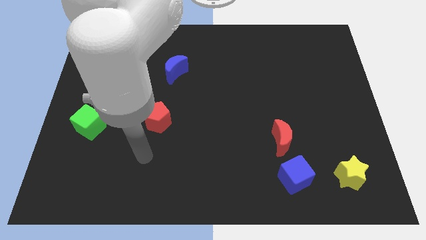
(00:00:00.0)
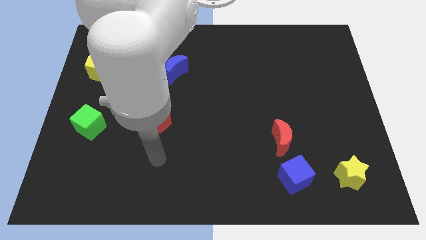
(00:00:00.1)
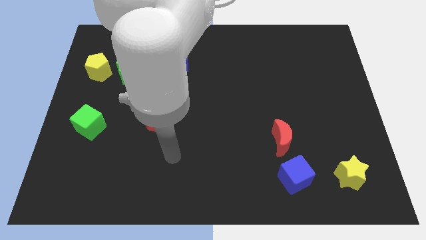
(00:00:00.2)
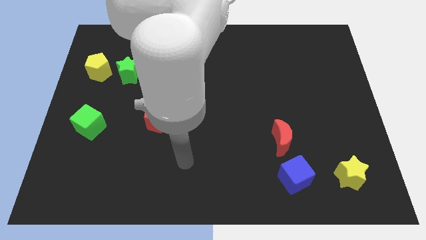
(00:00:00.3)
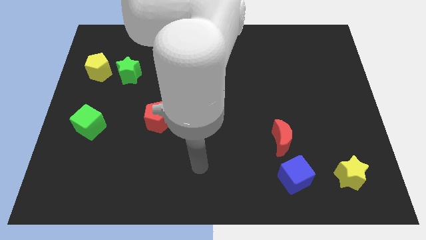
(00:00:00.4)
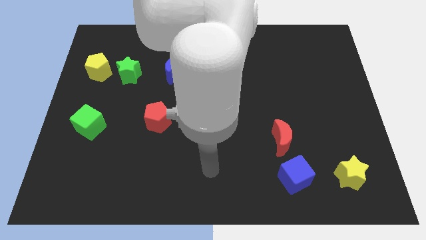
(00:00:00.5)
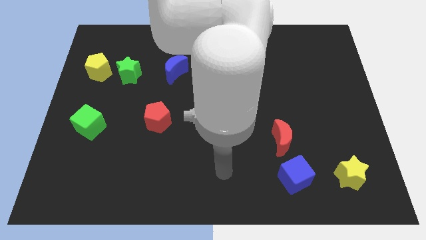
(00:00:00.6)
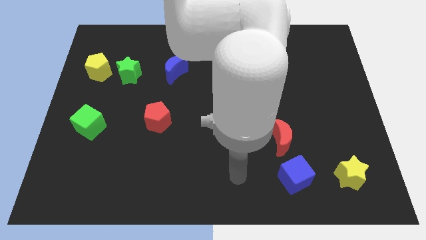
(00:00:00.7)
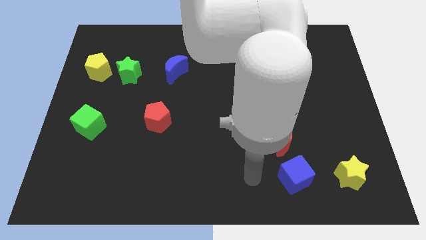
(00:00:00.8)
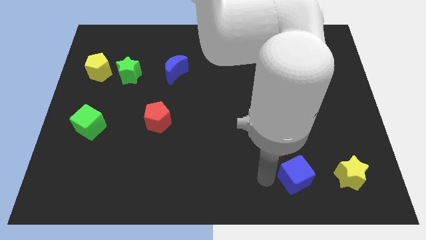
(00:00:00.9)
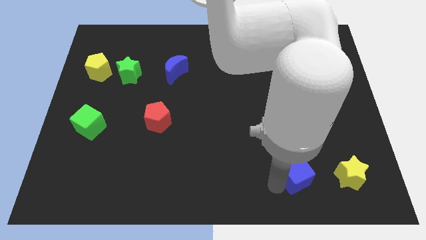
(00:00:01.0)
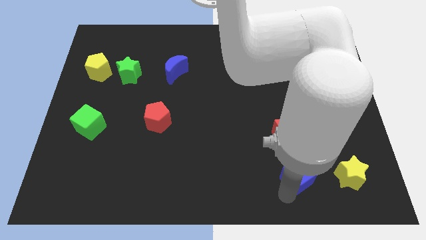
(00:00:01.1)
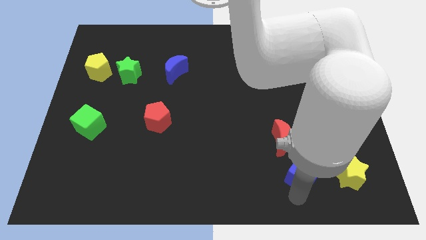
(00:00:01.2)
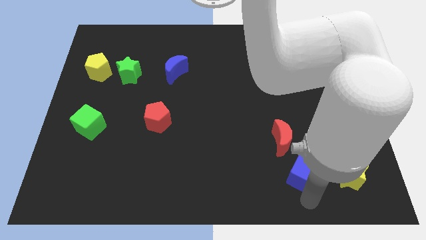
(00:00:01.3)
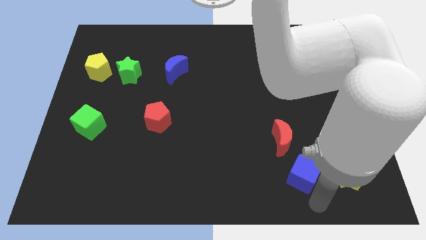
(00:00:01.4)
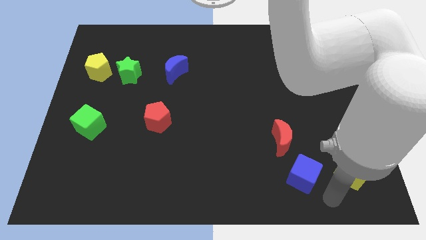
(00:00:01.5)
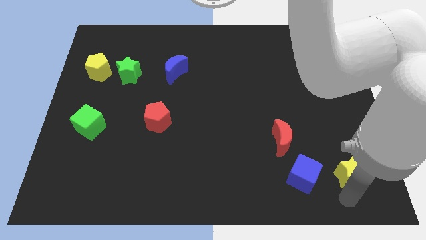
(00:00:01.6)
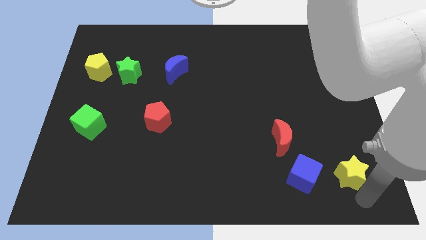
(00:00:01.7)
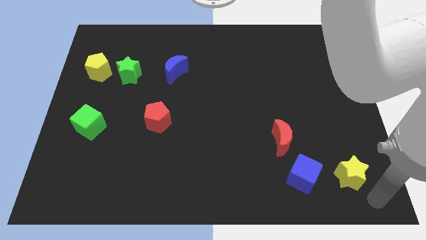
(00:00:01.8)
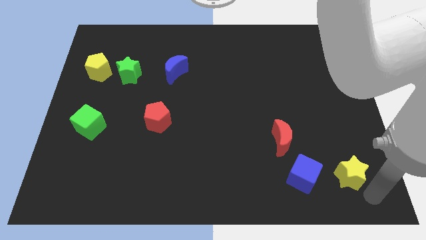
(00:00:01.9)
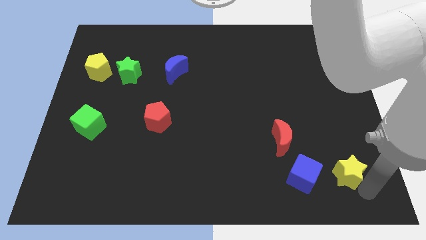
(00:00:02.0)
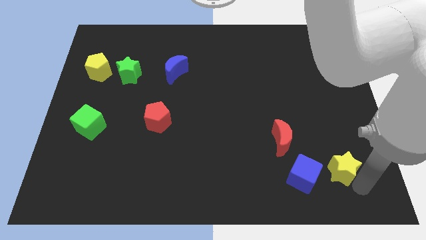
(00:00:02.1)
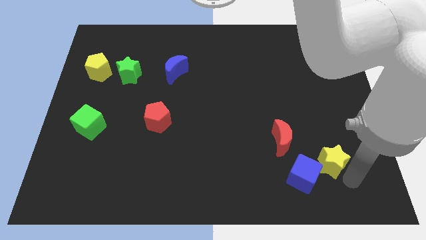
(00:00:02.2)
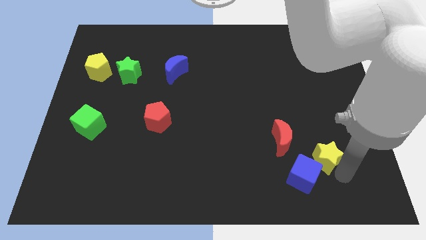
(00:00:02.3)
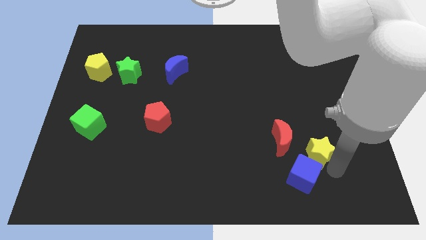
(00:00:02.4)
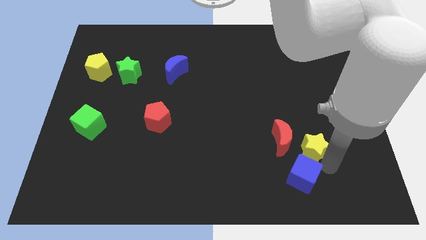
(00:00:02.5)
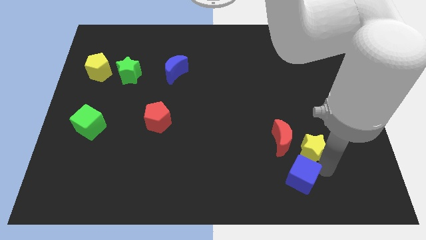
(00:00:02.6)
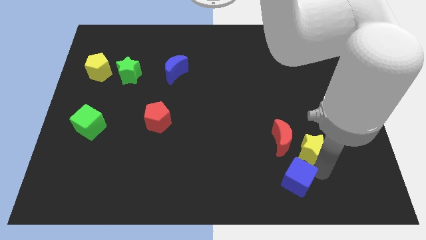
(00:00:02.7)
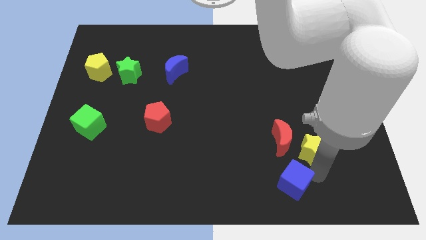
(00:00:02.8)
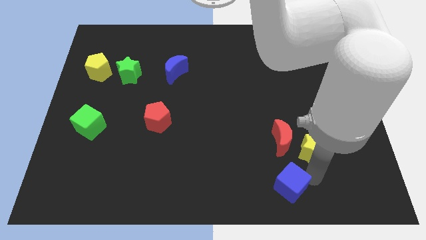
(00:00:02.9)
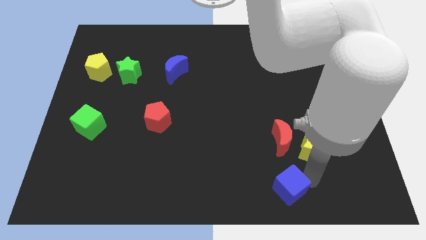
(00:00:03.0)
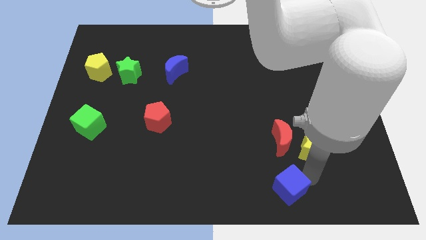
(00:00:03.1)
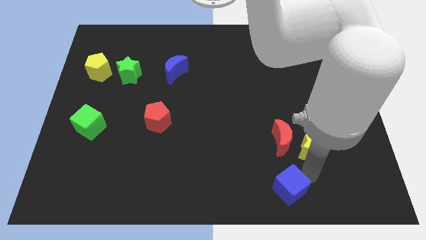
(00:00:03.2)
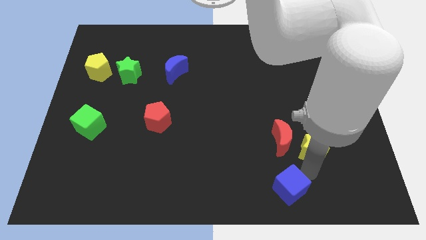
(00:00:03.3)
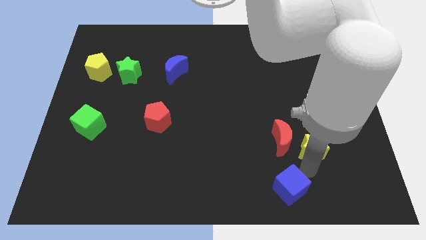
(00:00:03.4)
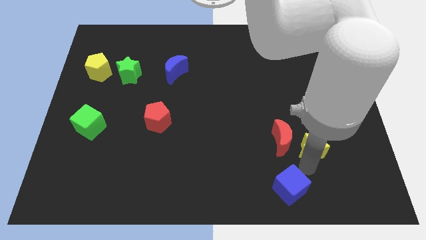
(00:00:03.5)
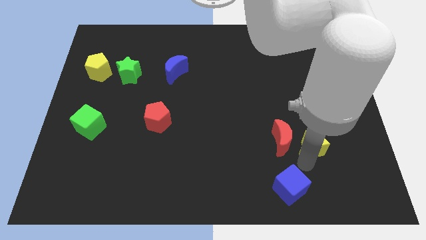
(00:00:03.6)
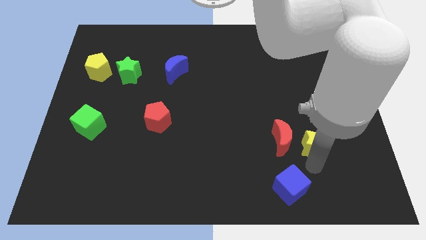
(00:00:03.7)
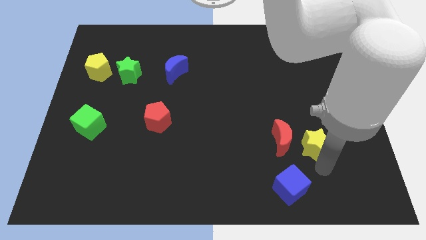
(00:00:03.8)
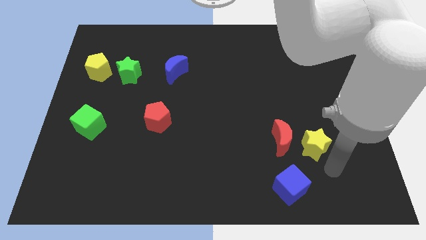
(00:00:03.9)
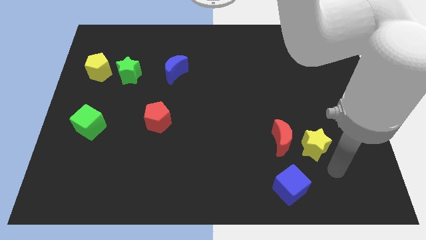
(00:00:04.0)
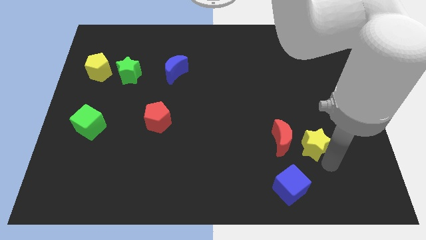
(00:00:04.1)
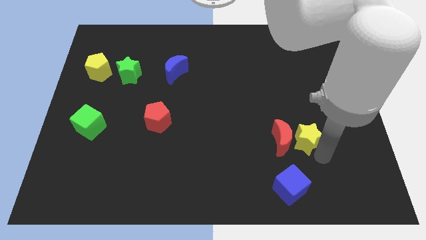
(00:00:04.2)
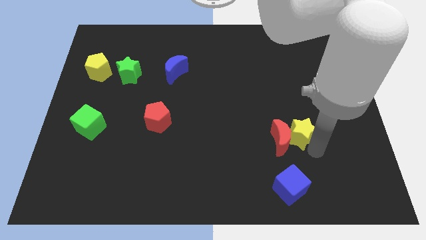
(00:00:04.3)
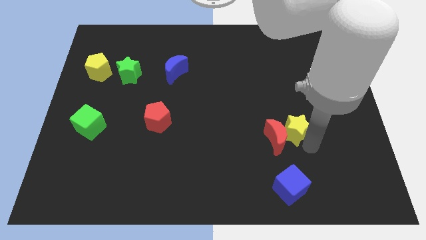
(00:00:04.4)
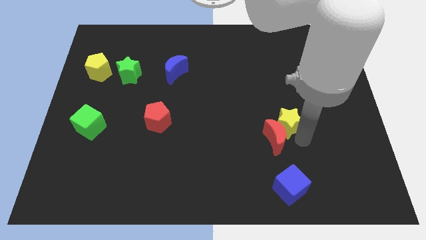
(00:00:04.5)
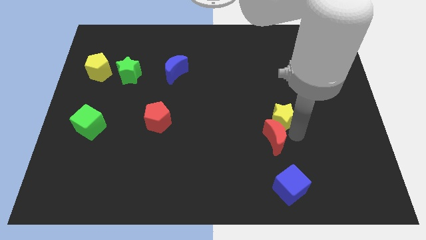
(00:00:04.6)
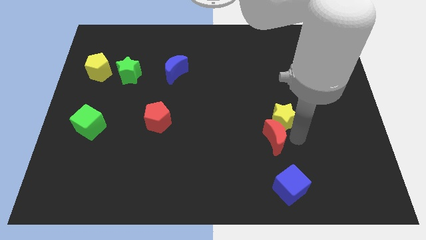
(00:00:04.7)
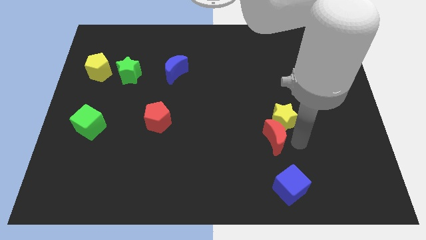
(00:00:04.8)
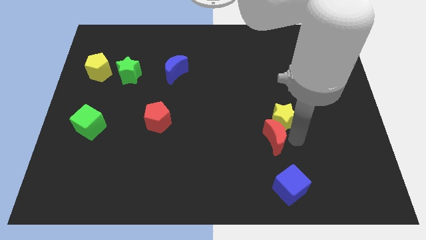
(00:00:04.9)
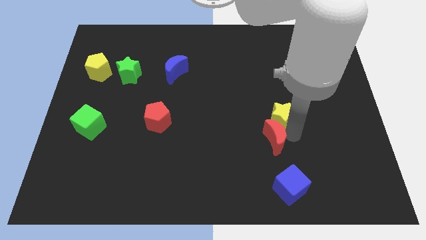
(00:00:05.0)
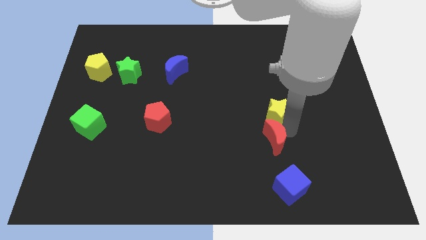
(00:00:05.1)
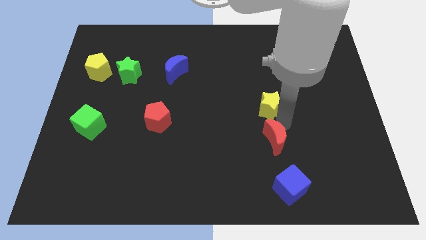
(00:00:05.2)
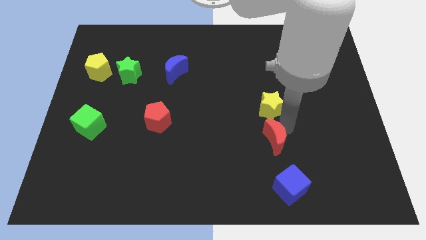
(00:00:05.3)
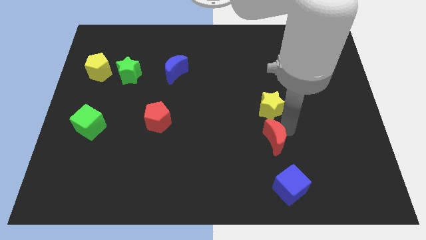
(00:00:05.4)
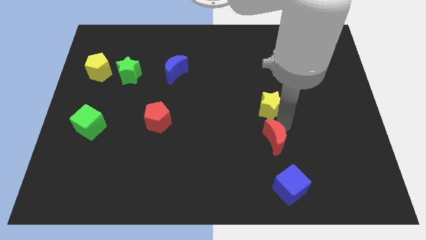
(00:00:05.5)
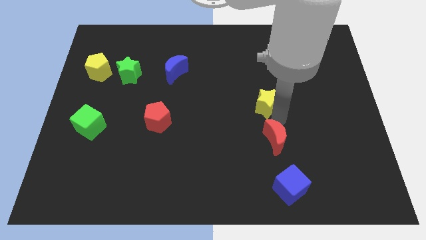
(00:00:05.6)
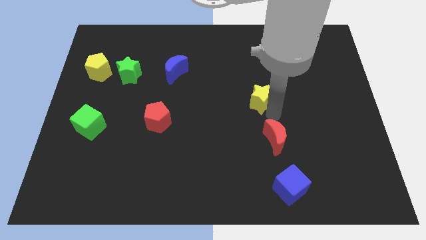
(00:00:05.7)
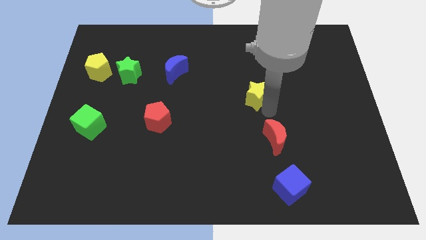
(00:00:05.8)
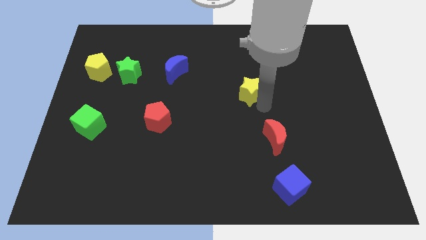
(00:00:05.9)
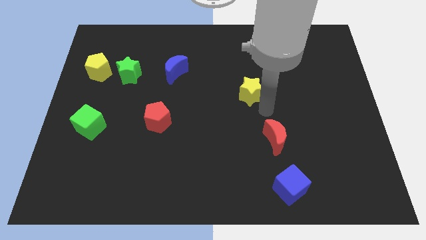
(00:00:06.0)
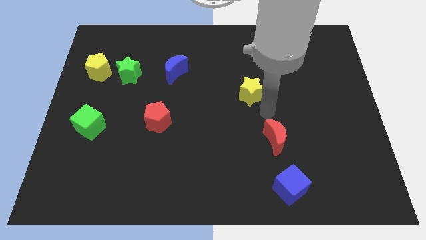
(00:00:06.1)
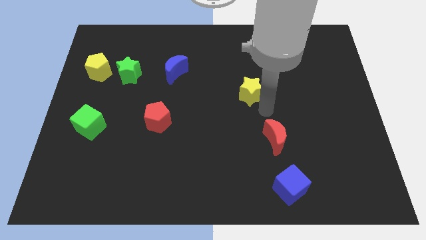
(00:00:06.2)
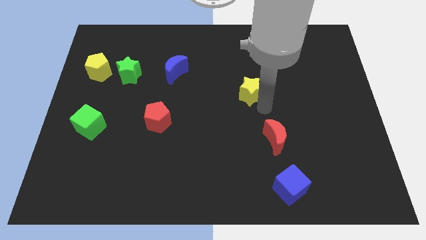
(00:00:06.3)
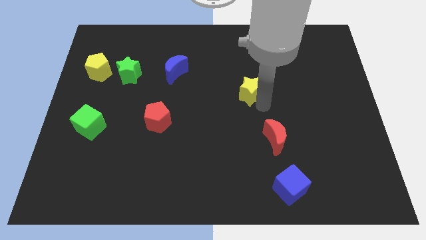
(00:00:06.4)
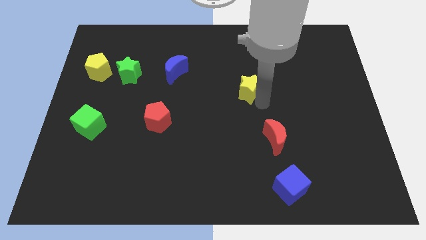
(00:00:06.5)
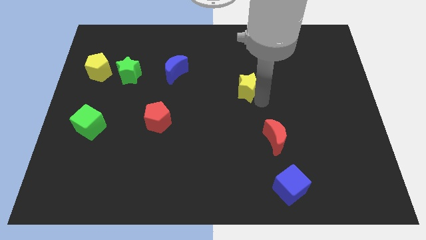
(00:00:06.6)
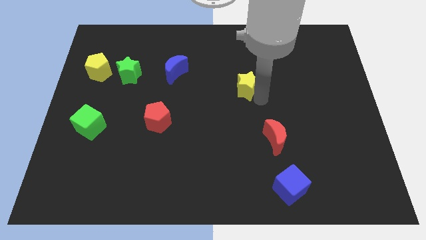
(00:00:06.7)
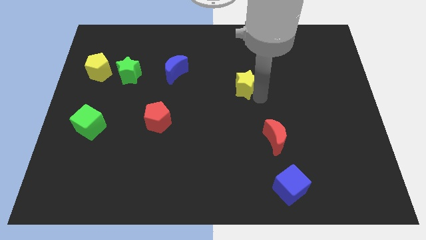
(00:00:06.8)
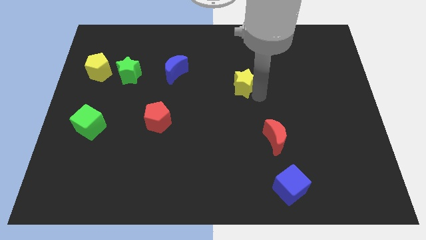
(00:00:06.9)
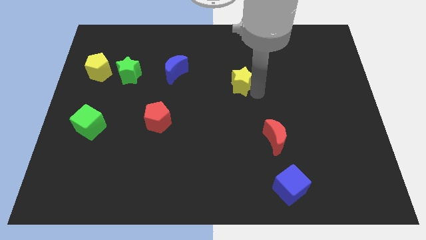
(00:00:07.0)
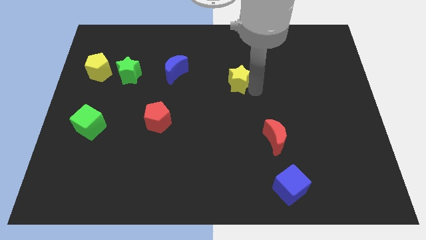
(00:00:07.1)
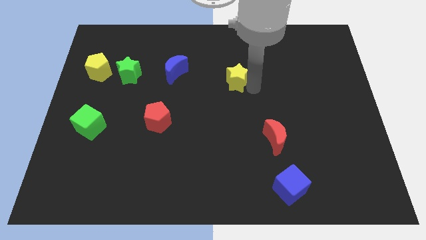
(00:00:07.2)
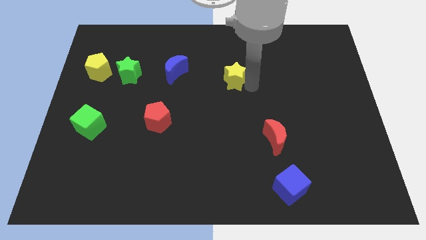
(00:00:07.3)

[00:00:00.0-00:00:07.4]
slide the yellow star right of the blue moon
